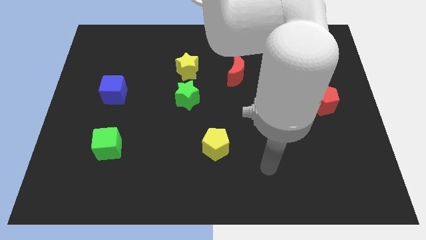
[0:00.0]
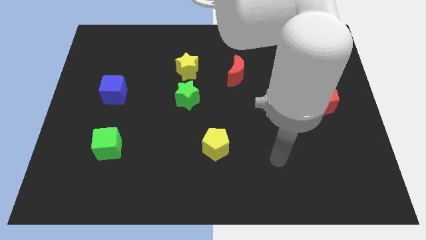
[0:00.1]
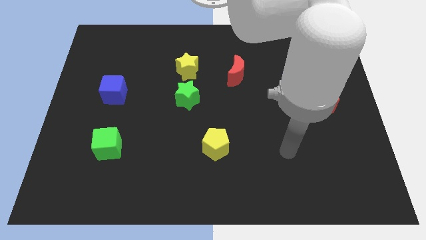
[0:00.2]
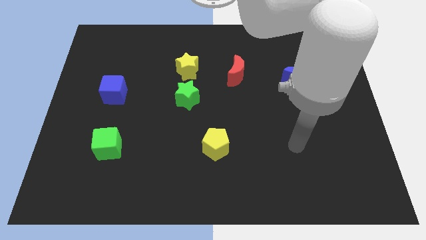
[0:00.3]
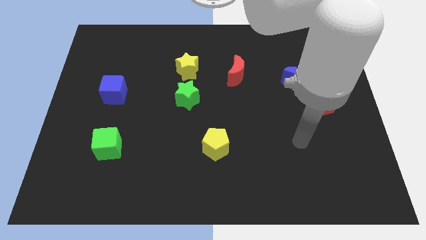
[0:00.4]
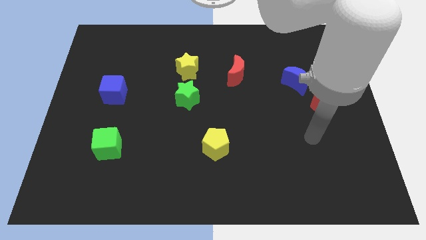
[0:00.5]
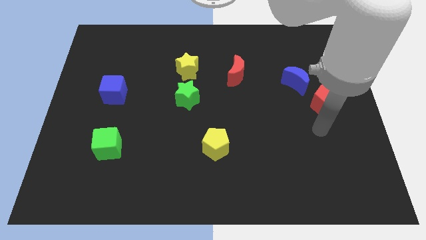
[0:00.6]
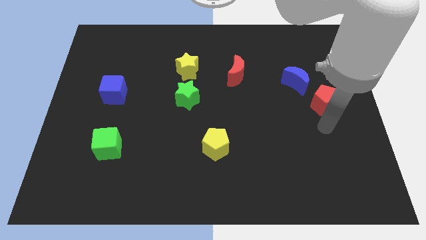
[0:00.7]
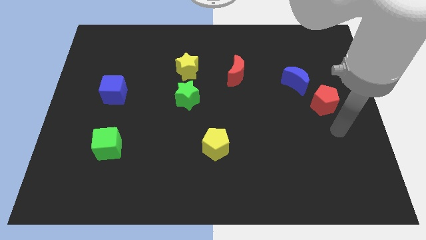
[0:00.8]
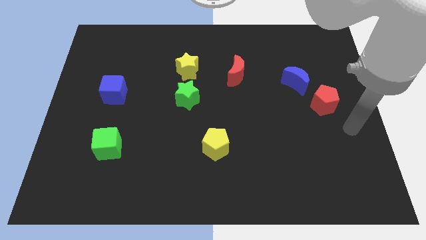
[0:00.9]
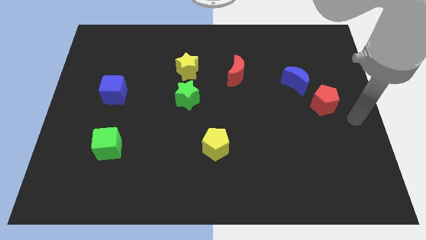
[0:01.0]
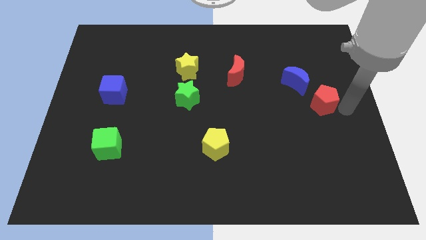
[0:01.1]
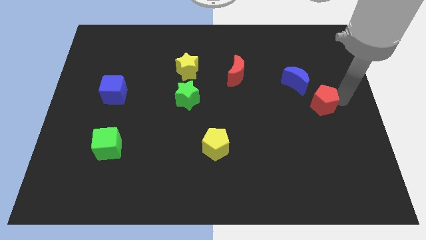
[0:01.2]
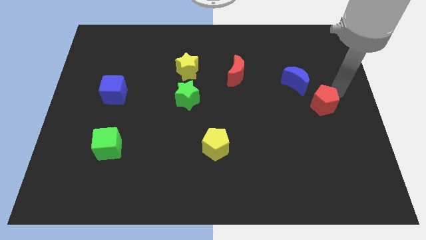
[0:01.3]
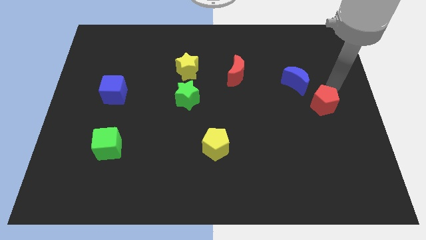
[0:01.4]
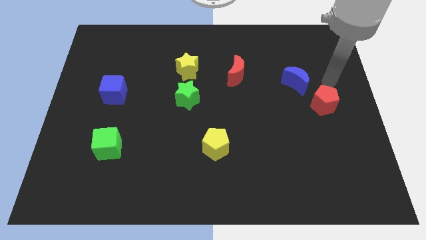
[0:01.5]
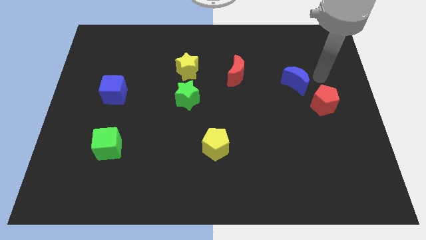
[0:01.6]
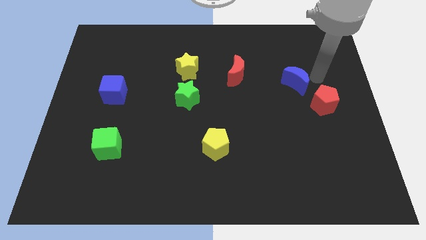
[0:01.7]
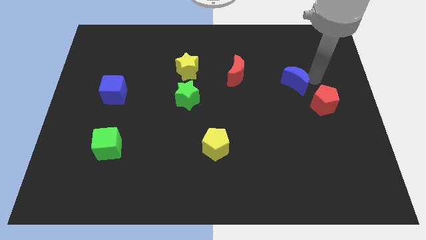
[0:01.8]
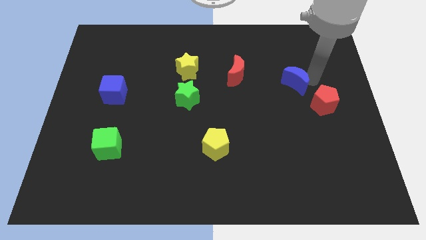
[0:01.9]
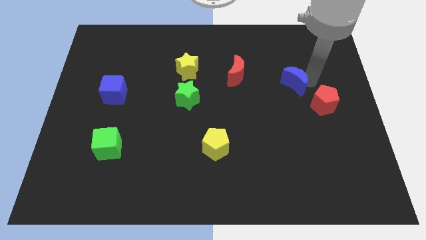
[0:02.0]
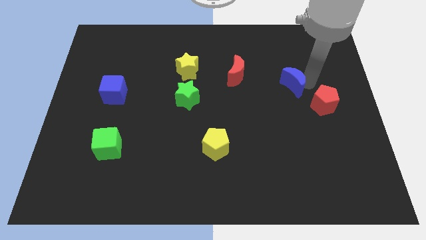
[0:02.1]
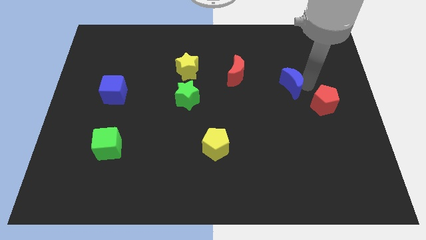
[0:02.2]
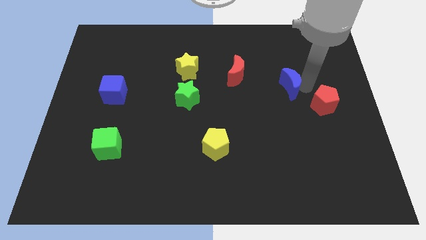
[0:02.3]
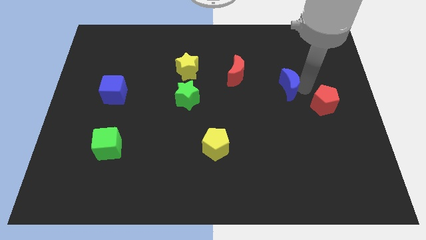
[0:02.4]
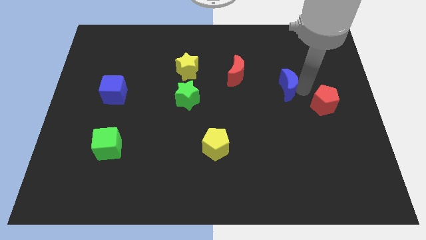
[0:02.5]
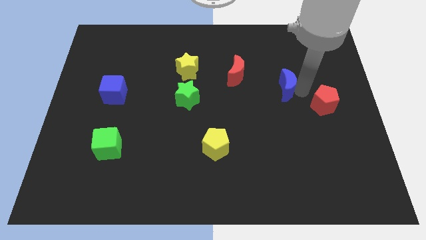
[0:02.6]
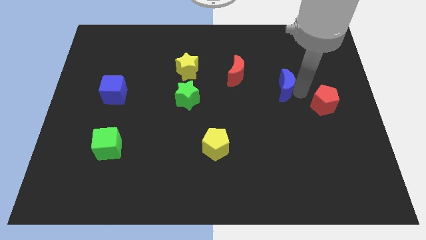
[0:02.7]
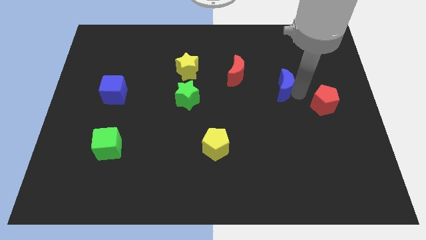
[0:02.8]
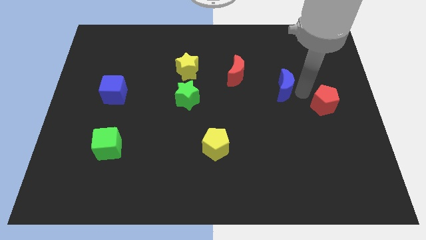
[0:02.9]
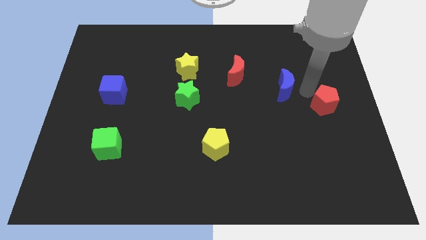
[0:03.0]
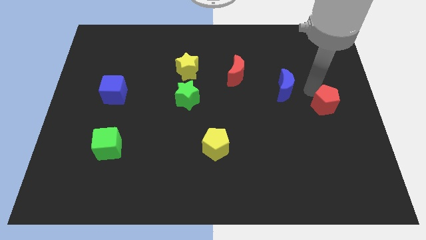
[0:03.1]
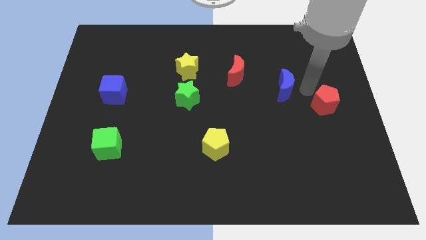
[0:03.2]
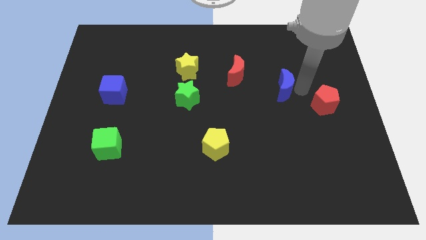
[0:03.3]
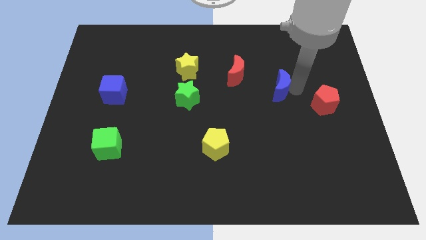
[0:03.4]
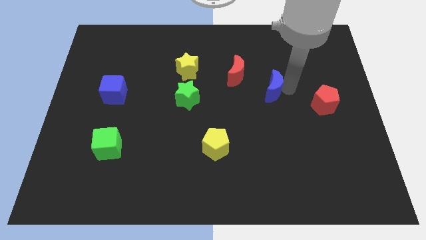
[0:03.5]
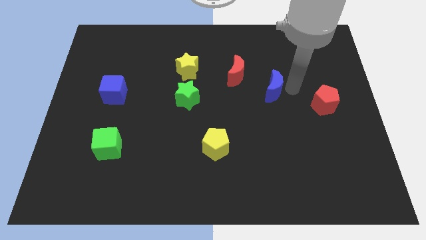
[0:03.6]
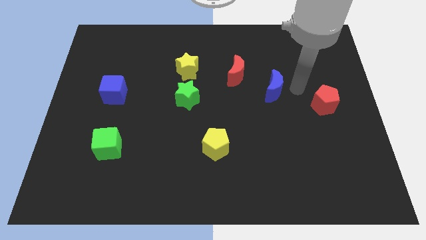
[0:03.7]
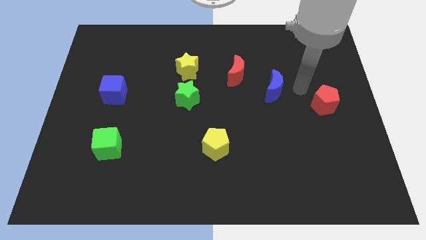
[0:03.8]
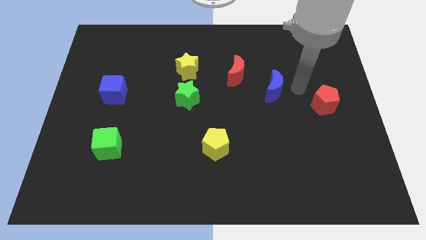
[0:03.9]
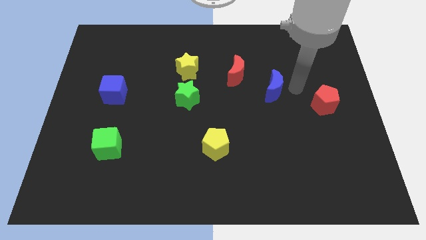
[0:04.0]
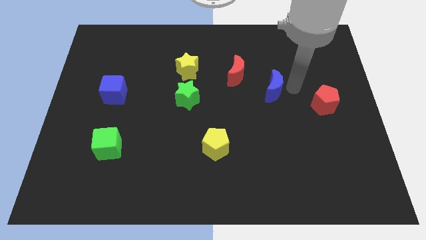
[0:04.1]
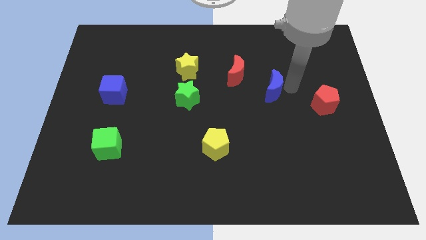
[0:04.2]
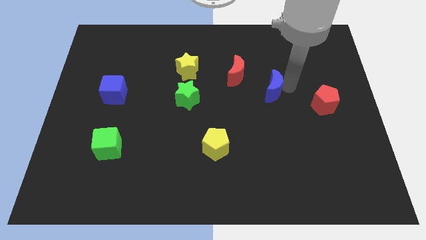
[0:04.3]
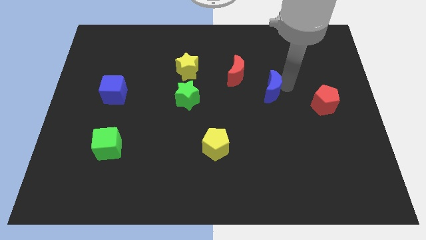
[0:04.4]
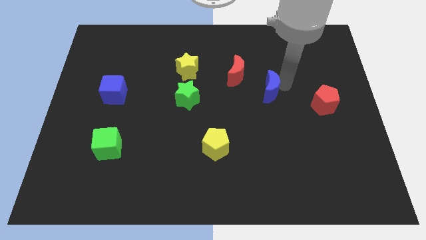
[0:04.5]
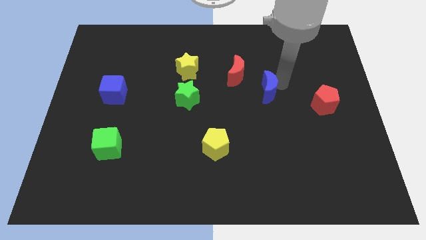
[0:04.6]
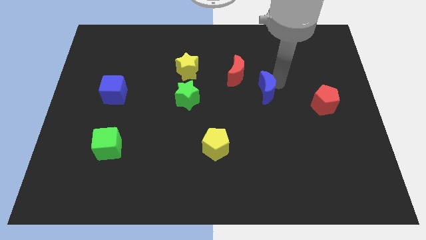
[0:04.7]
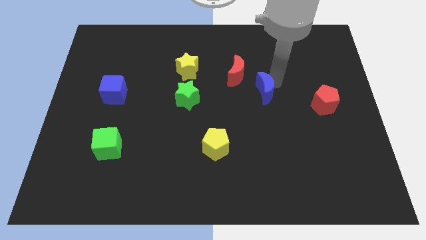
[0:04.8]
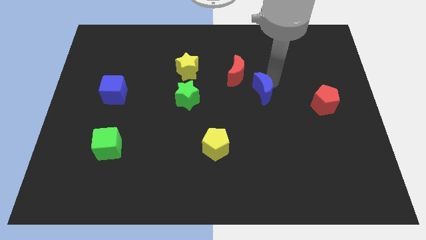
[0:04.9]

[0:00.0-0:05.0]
put the blue moon to the middle of the board

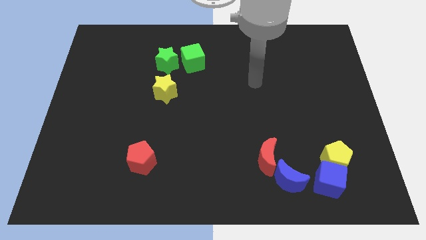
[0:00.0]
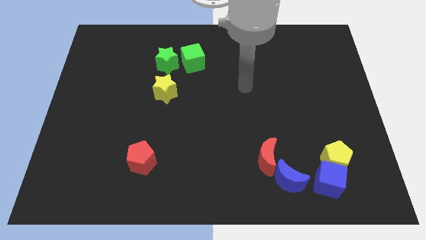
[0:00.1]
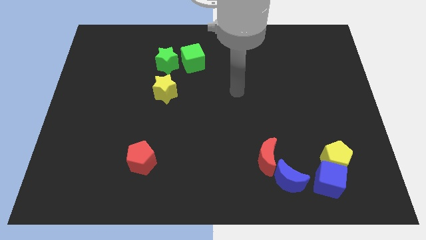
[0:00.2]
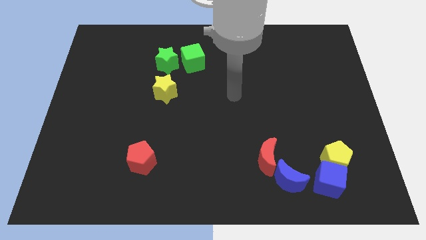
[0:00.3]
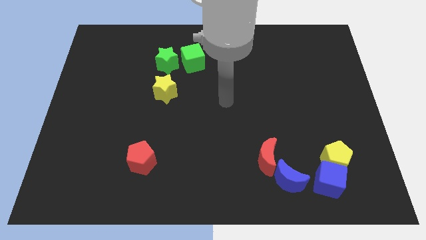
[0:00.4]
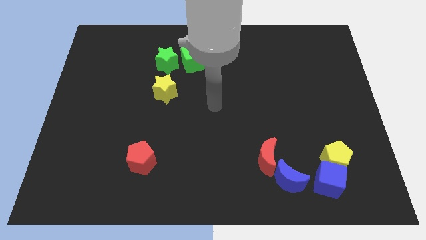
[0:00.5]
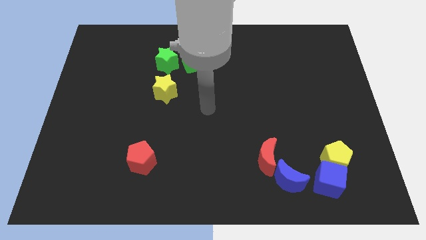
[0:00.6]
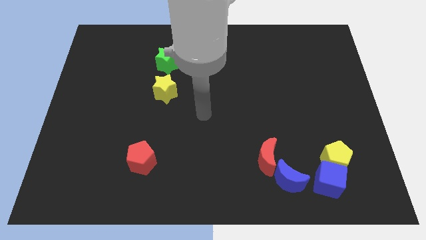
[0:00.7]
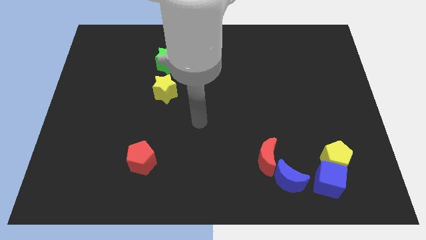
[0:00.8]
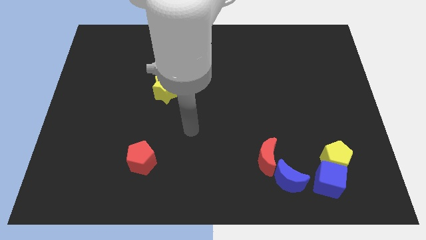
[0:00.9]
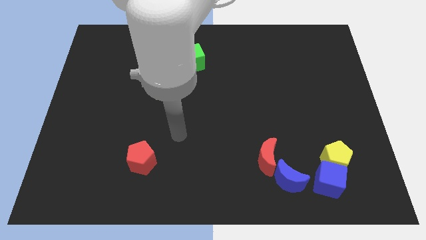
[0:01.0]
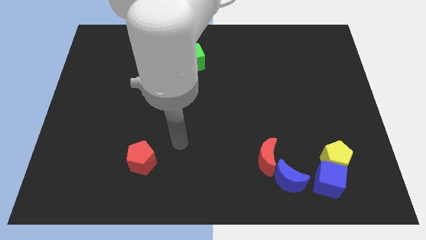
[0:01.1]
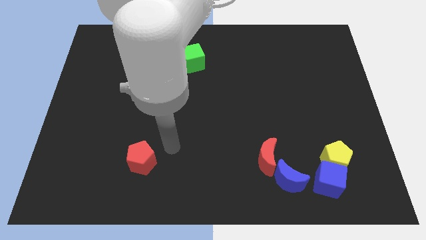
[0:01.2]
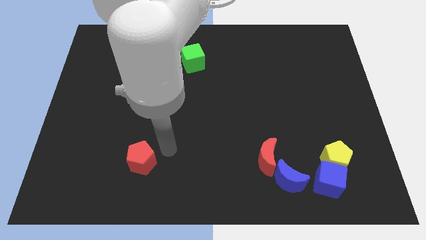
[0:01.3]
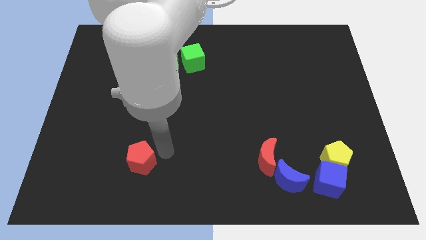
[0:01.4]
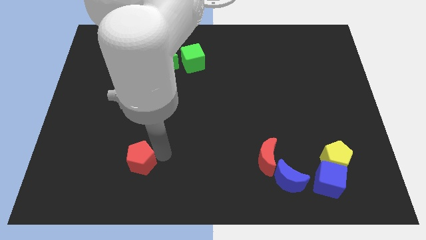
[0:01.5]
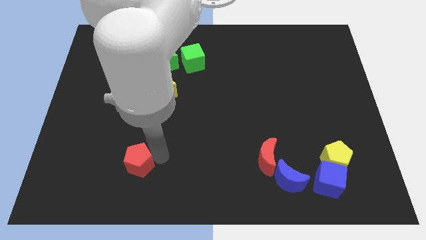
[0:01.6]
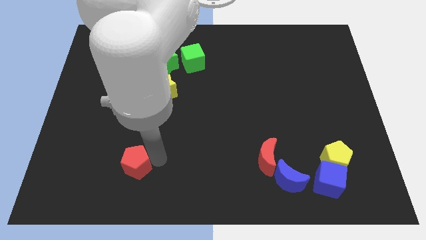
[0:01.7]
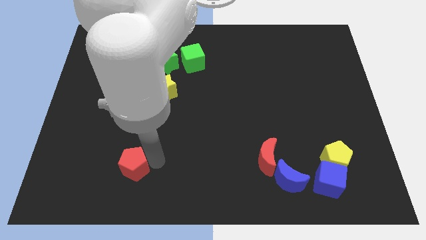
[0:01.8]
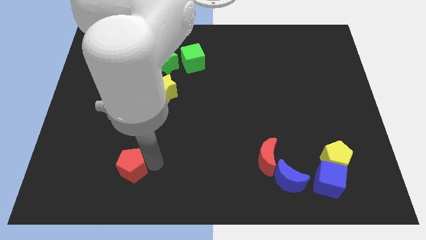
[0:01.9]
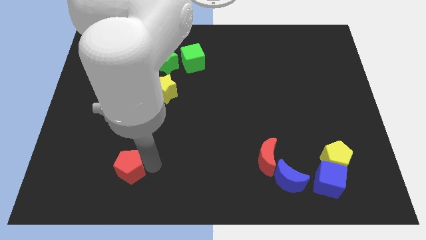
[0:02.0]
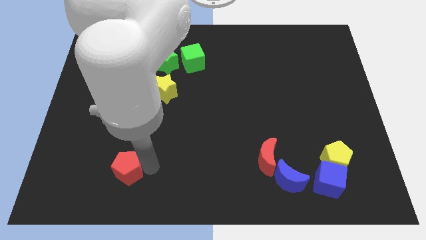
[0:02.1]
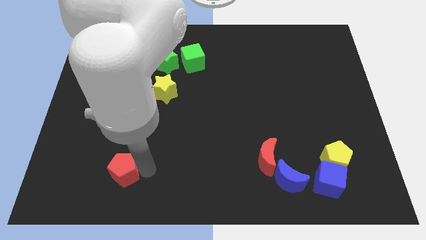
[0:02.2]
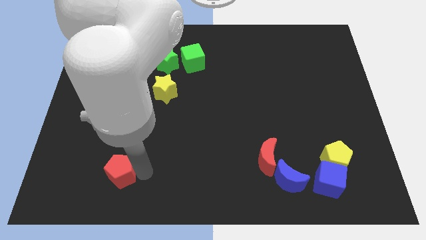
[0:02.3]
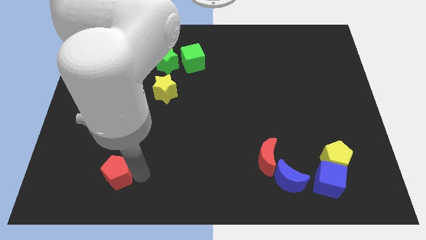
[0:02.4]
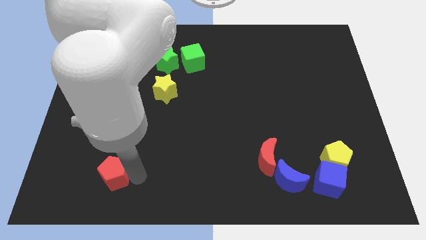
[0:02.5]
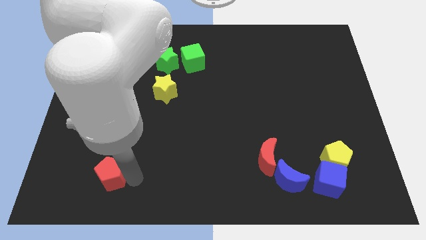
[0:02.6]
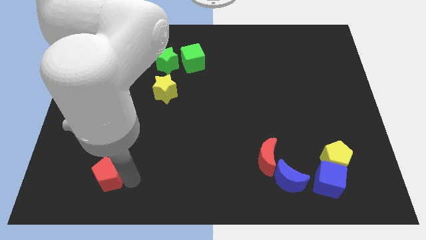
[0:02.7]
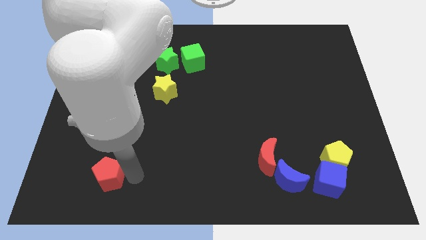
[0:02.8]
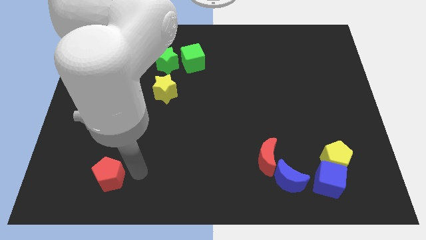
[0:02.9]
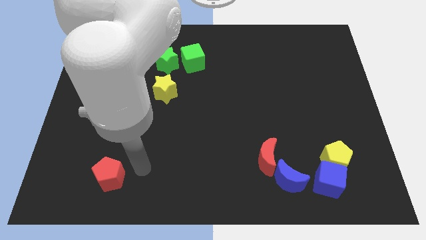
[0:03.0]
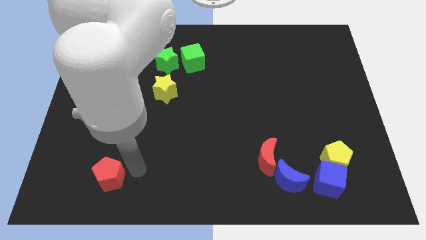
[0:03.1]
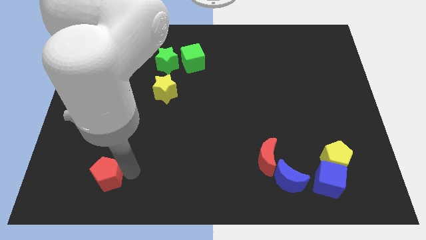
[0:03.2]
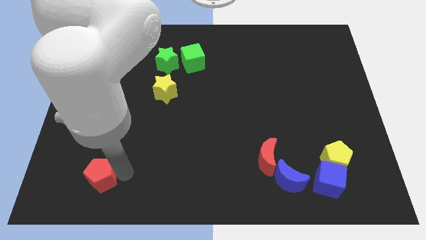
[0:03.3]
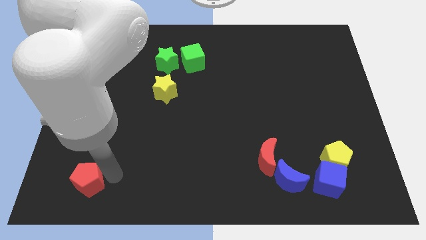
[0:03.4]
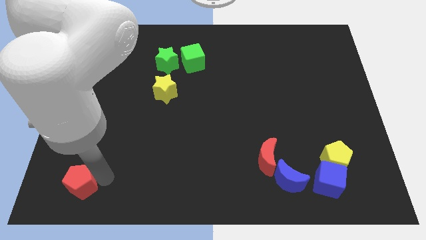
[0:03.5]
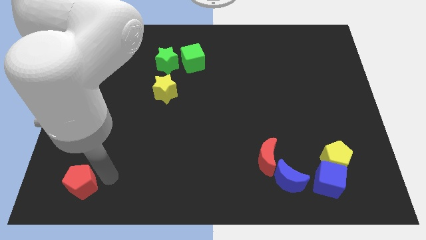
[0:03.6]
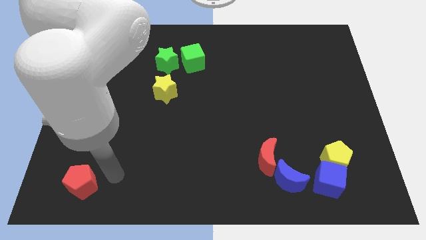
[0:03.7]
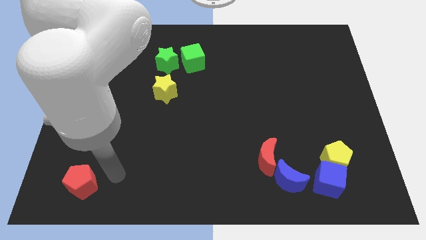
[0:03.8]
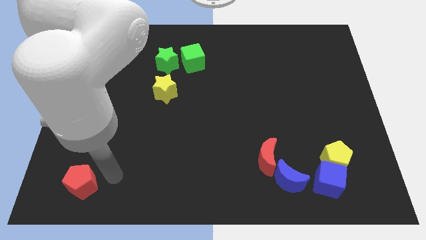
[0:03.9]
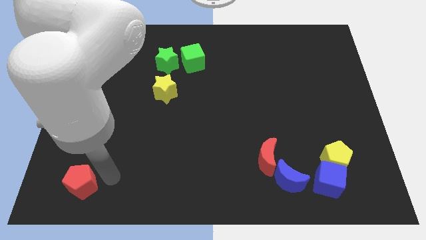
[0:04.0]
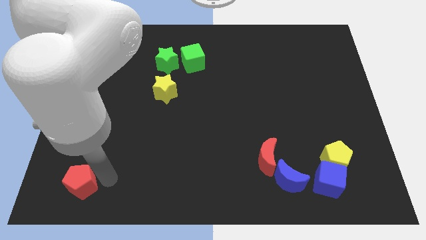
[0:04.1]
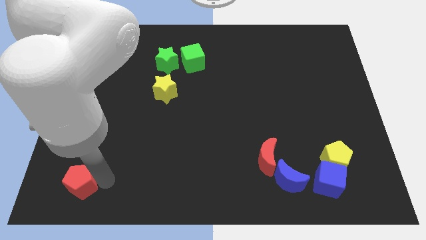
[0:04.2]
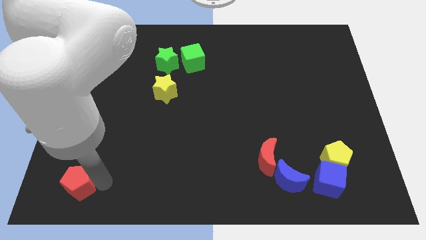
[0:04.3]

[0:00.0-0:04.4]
move the red pentagon to the bottom left corner
